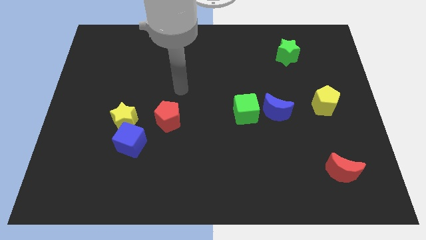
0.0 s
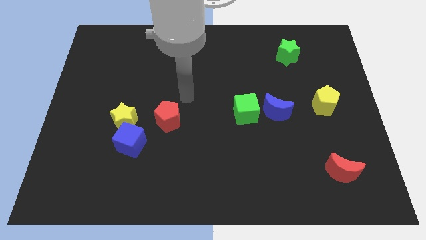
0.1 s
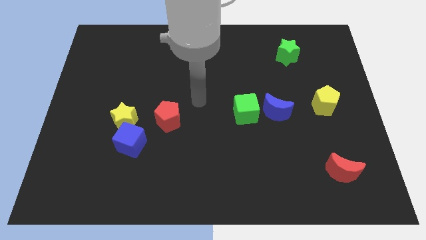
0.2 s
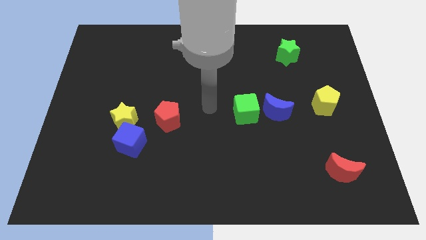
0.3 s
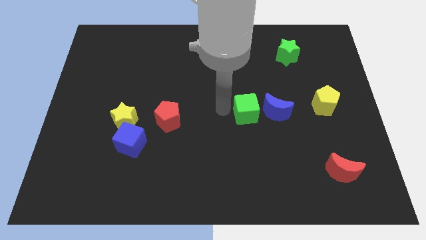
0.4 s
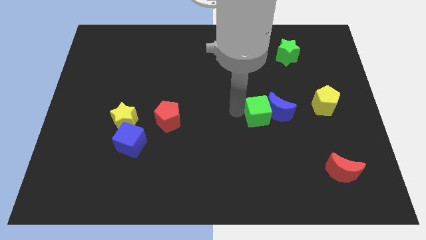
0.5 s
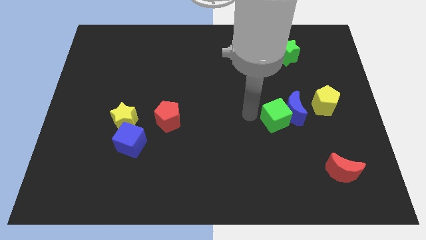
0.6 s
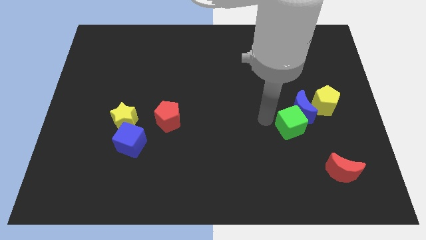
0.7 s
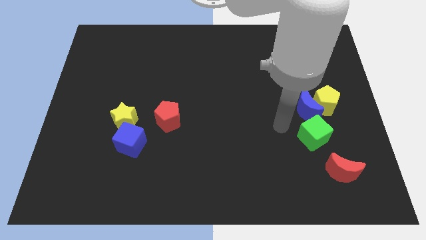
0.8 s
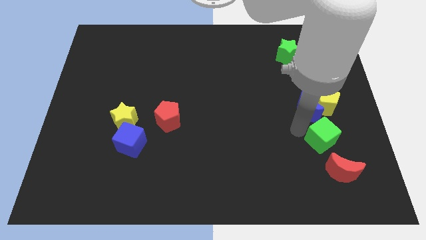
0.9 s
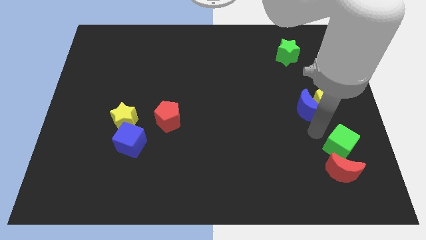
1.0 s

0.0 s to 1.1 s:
separate the blue moon from the green cube

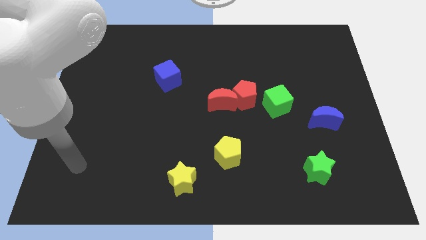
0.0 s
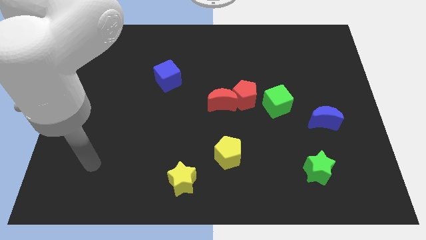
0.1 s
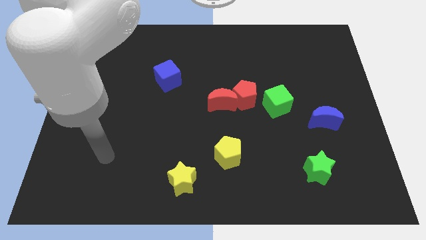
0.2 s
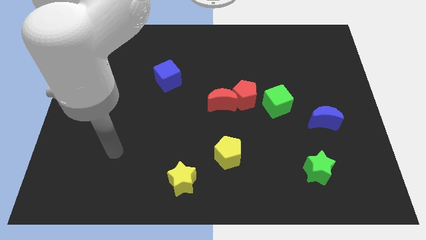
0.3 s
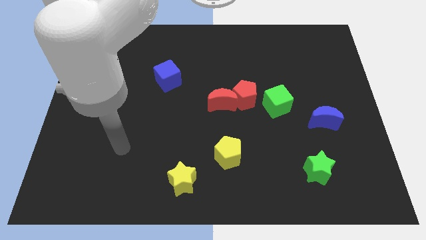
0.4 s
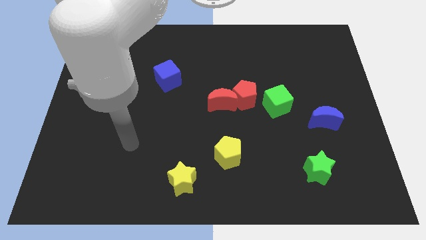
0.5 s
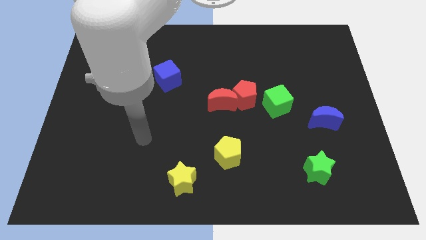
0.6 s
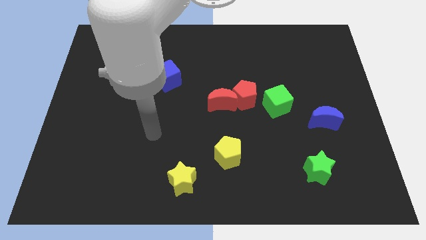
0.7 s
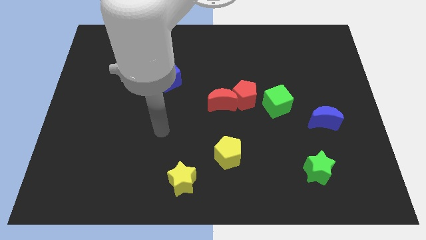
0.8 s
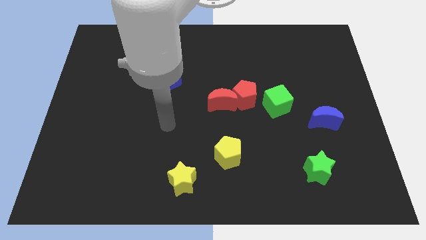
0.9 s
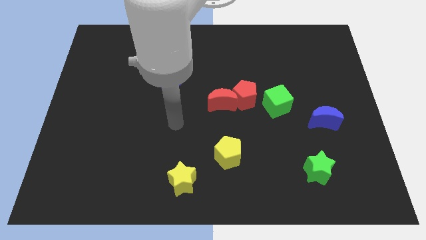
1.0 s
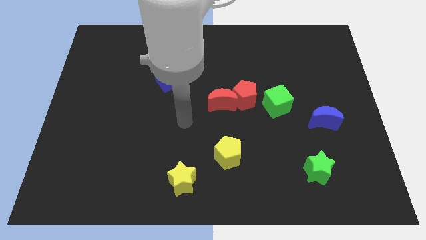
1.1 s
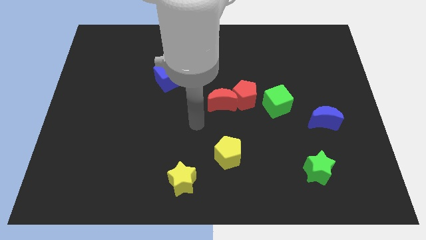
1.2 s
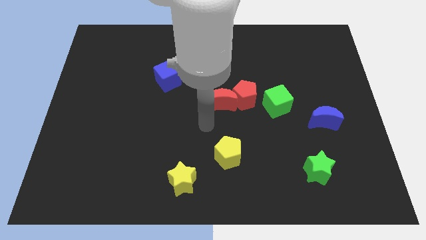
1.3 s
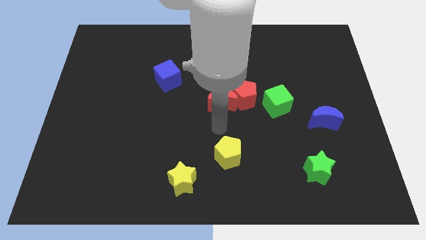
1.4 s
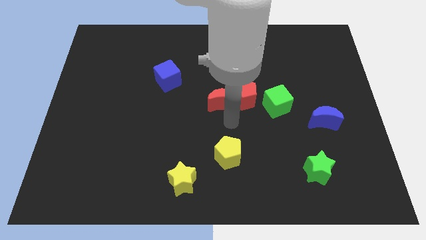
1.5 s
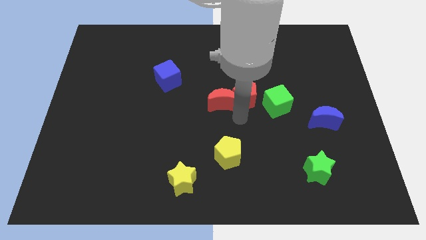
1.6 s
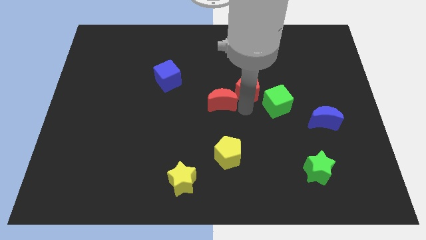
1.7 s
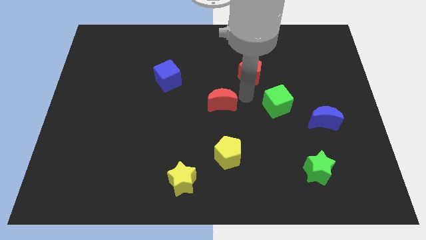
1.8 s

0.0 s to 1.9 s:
move the red moon away from the red pentagon

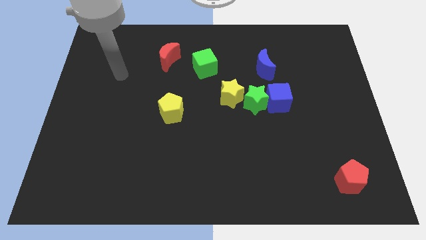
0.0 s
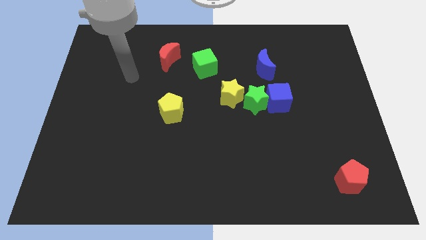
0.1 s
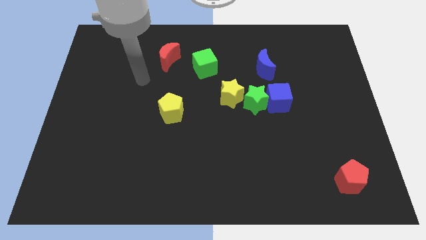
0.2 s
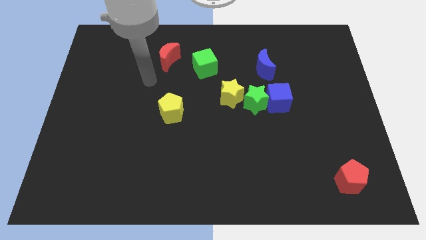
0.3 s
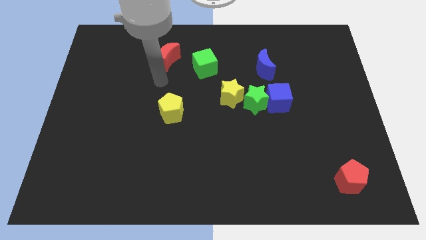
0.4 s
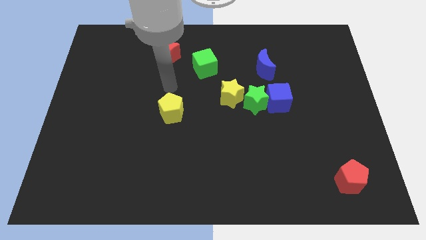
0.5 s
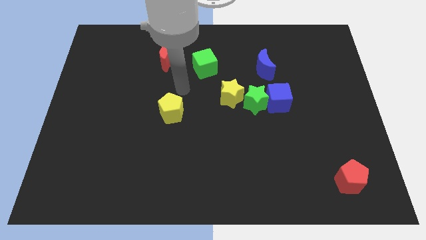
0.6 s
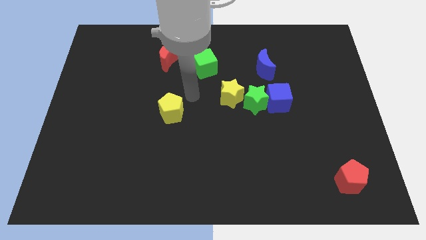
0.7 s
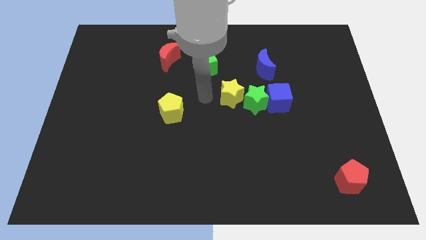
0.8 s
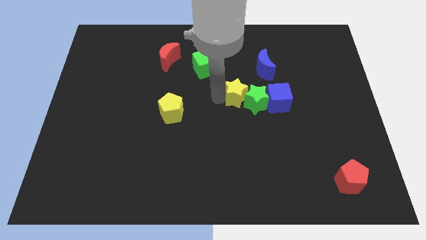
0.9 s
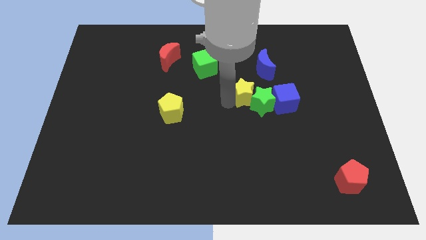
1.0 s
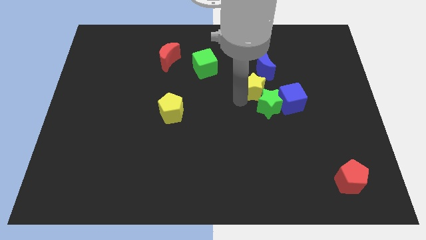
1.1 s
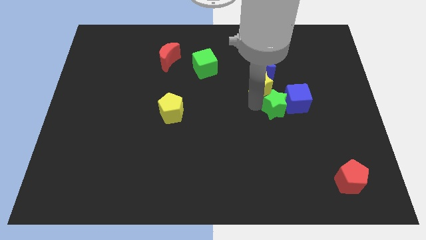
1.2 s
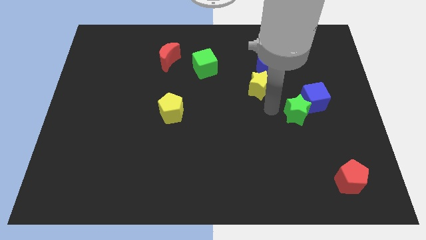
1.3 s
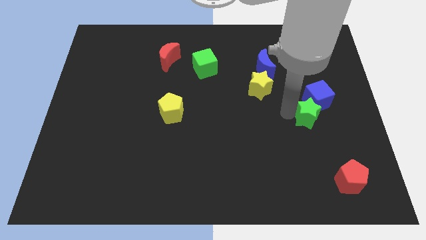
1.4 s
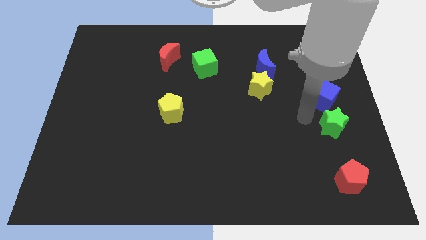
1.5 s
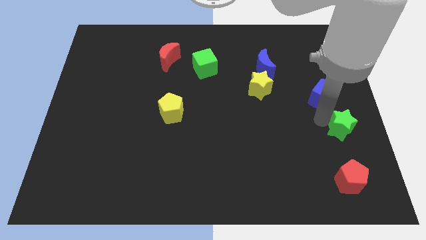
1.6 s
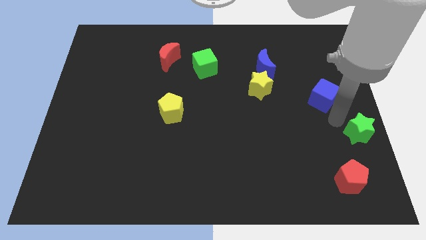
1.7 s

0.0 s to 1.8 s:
pull the blue cube apart from the green star

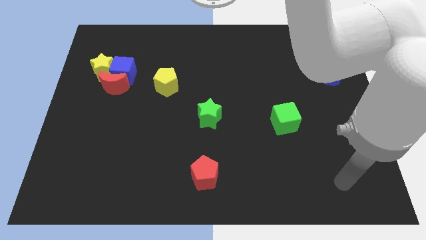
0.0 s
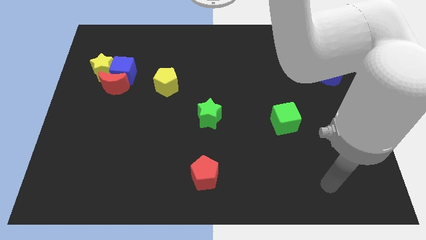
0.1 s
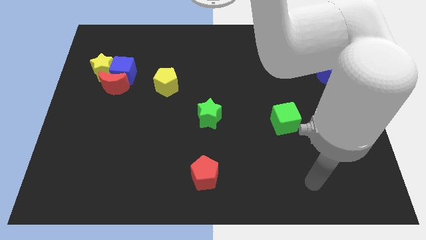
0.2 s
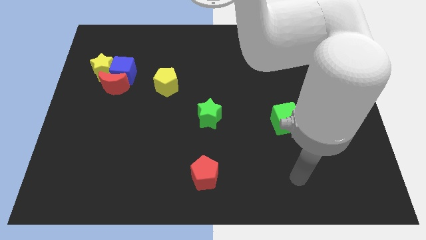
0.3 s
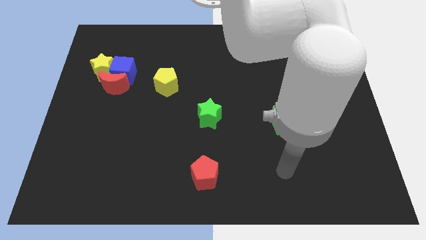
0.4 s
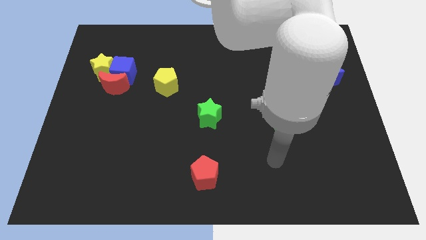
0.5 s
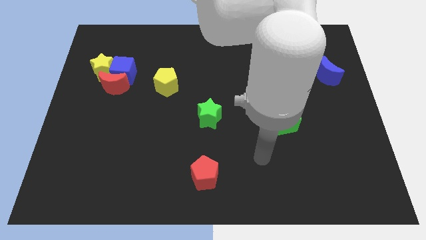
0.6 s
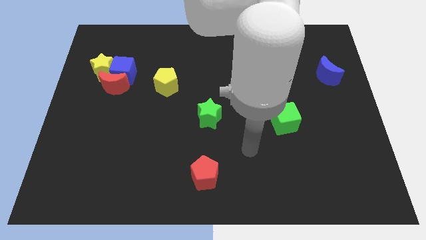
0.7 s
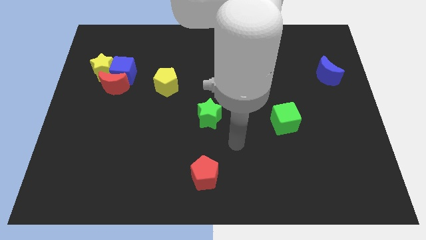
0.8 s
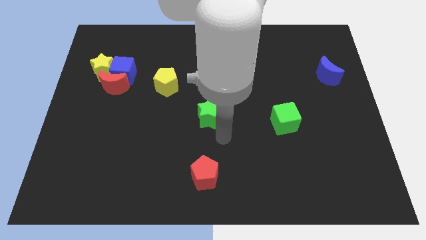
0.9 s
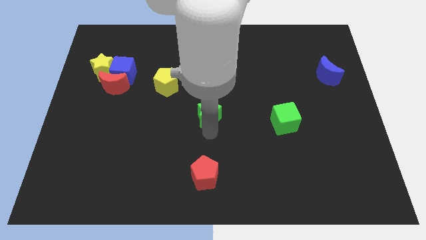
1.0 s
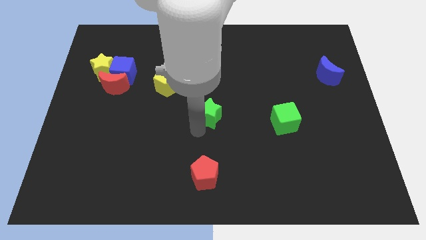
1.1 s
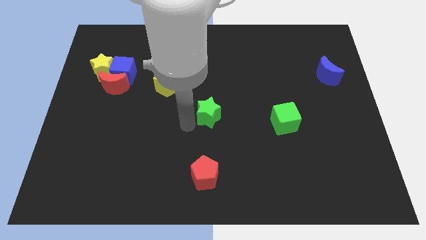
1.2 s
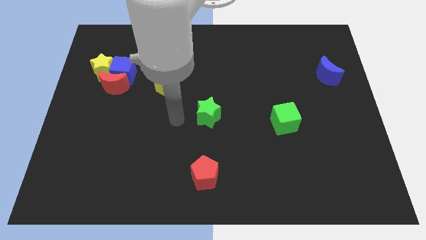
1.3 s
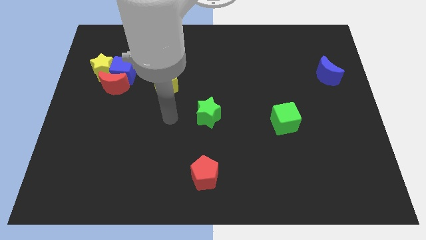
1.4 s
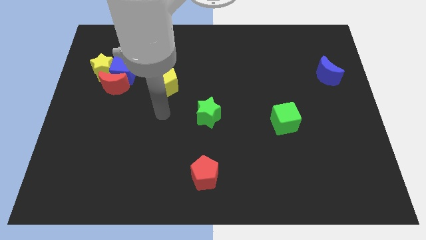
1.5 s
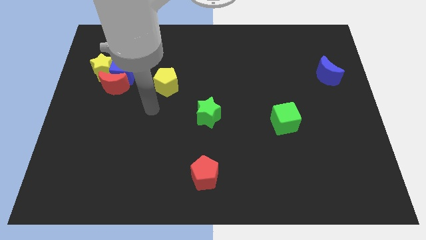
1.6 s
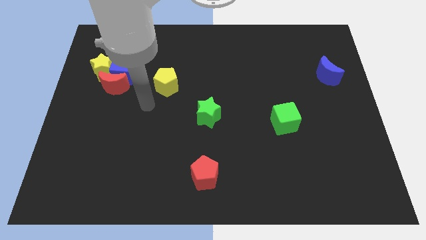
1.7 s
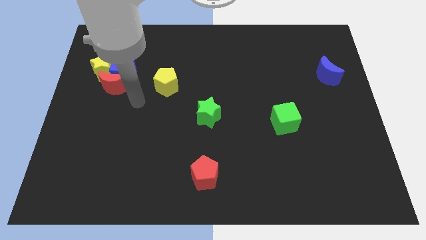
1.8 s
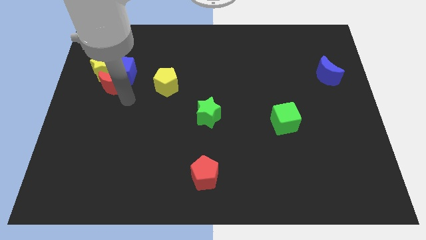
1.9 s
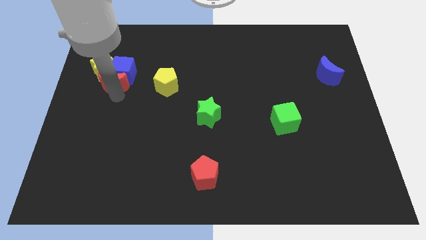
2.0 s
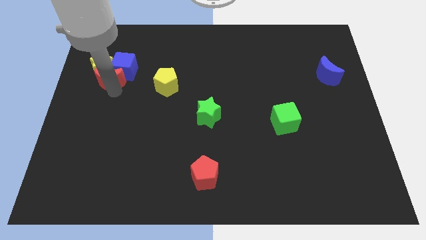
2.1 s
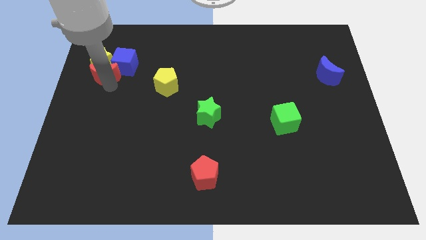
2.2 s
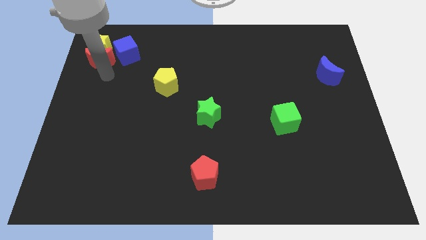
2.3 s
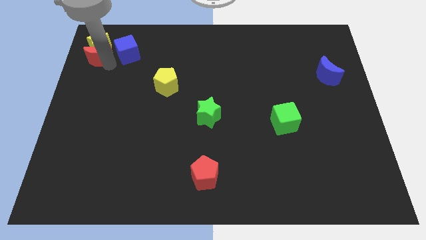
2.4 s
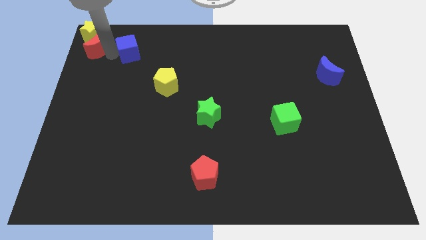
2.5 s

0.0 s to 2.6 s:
pull the blue cube apart from the red moon and yellow star

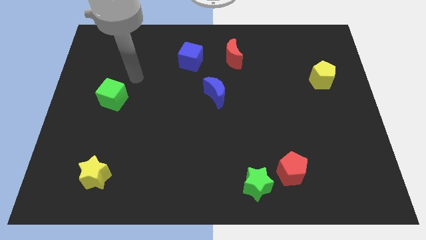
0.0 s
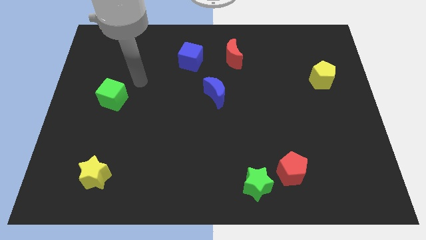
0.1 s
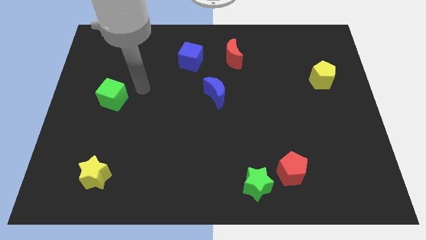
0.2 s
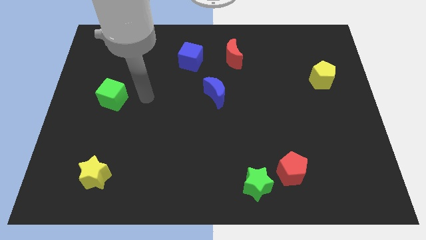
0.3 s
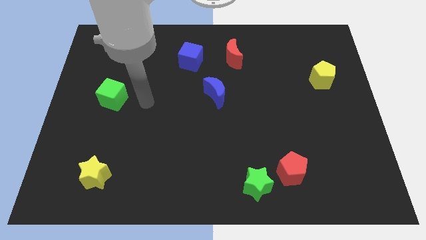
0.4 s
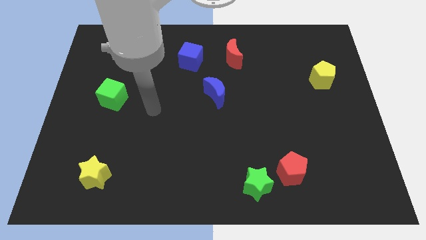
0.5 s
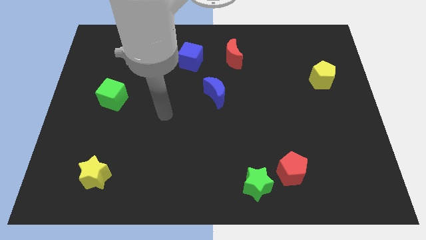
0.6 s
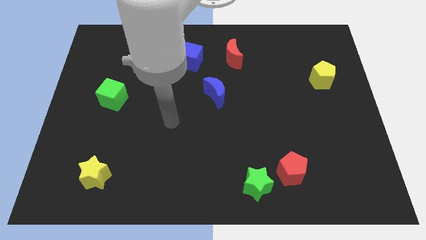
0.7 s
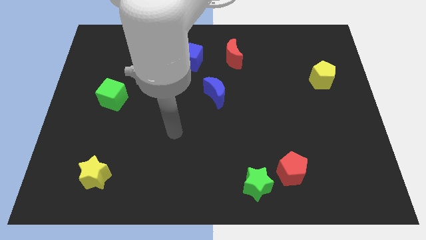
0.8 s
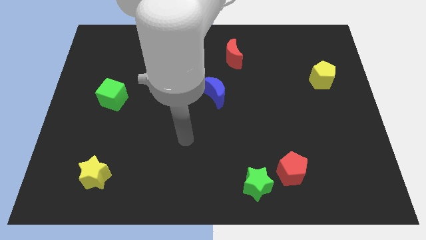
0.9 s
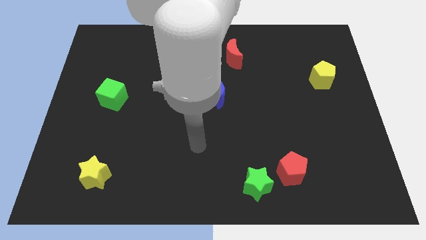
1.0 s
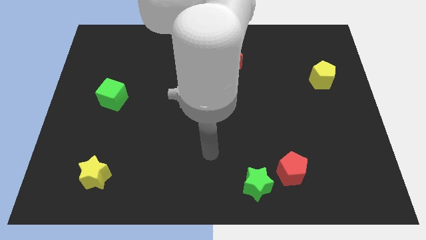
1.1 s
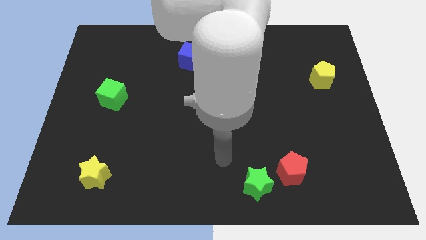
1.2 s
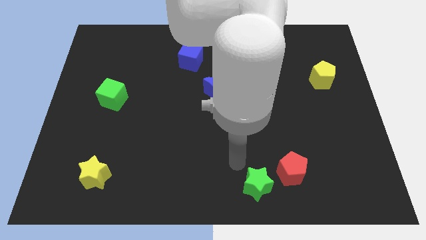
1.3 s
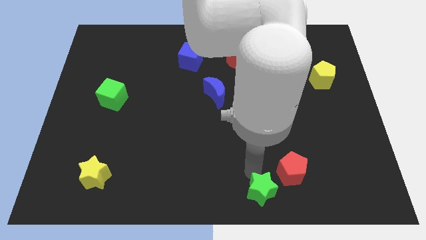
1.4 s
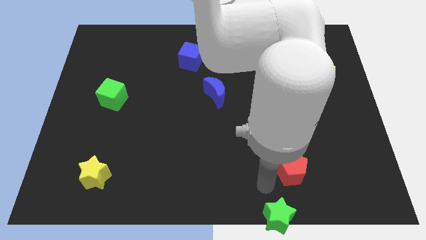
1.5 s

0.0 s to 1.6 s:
pull the red pentagon apart from the green star

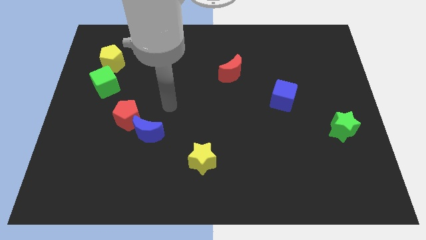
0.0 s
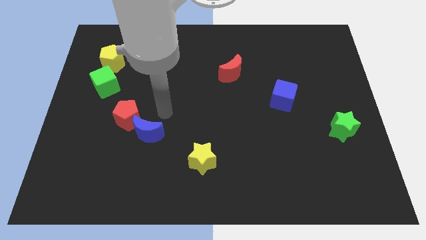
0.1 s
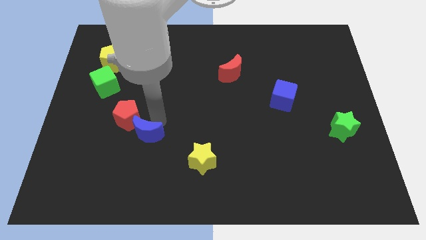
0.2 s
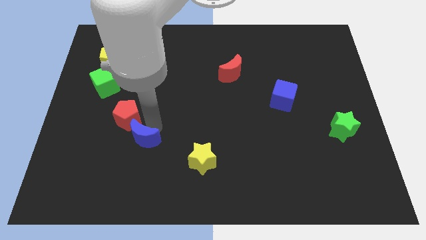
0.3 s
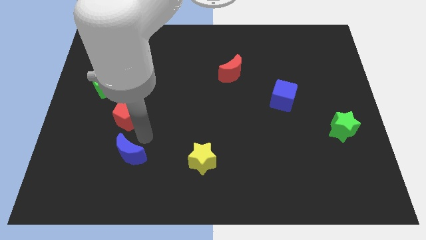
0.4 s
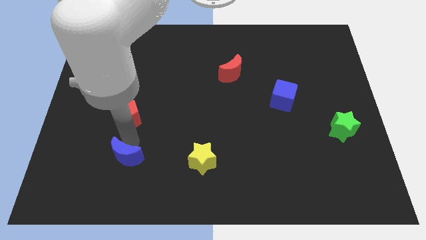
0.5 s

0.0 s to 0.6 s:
move the red pentagon away from the blue moon
